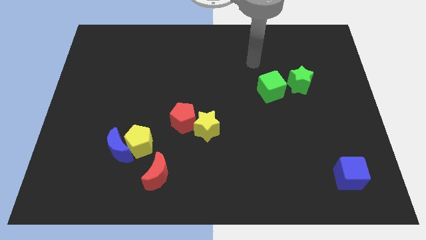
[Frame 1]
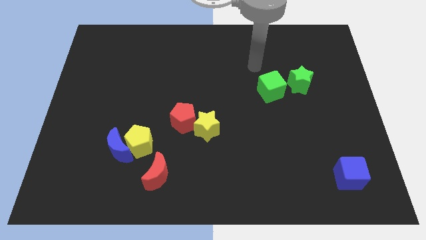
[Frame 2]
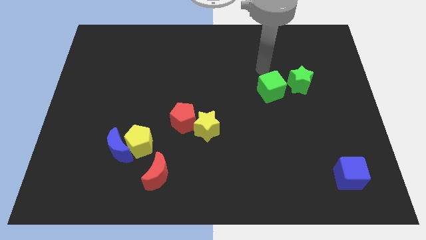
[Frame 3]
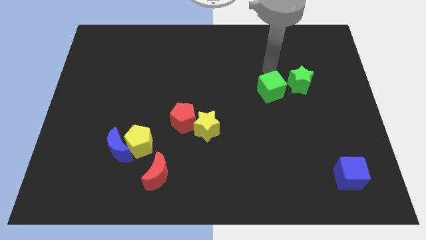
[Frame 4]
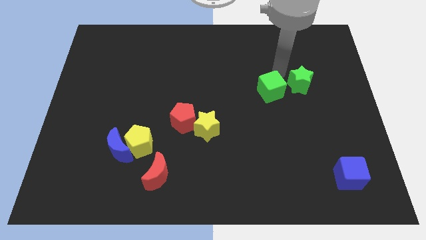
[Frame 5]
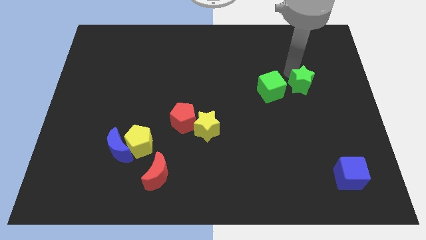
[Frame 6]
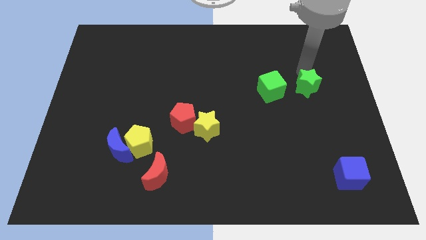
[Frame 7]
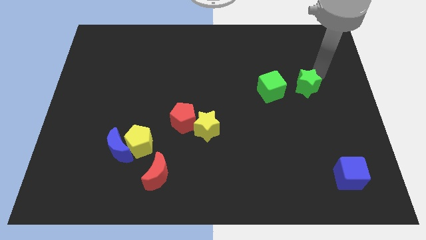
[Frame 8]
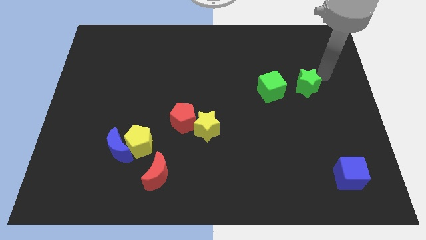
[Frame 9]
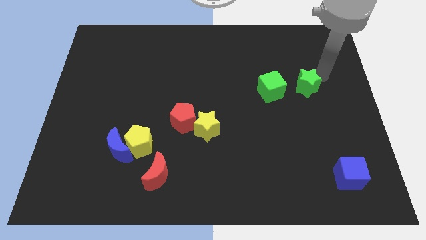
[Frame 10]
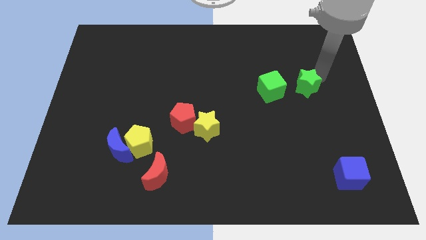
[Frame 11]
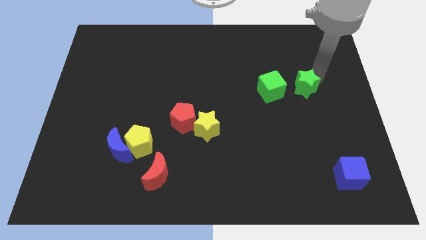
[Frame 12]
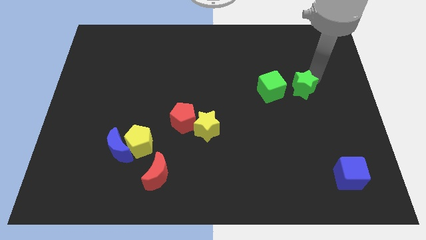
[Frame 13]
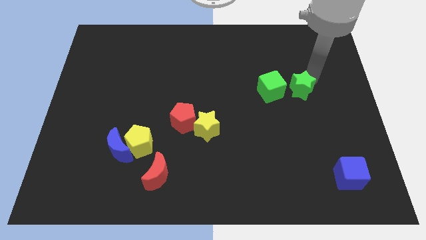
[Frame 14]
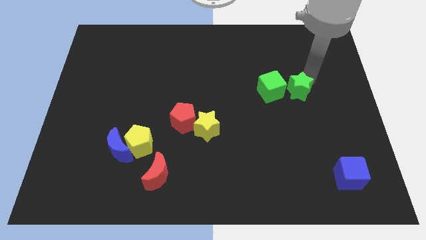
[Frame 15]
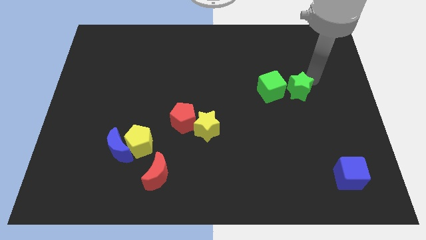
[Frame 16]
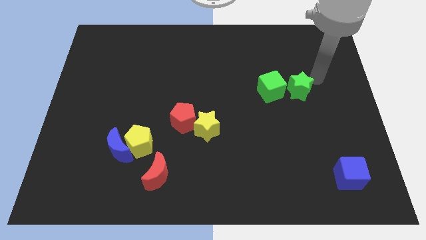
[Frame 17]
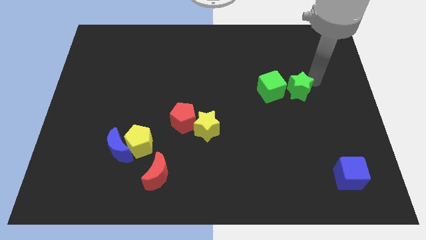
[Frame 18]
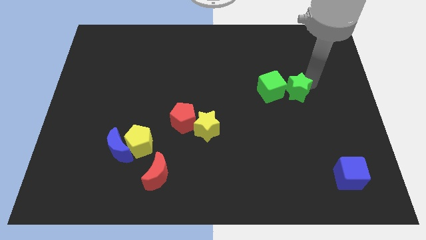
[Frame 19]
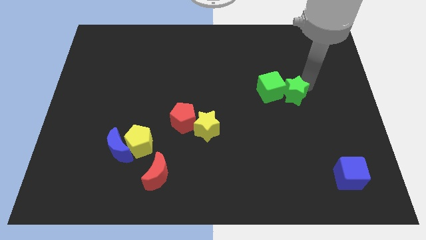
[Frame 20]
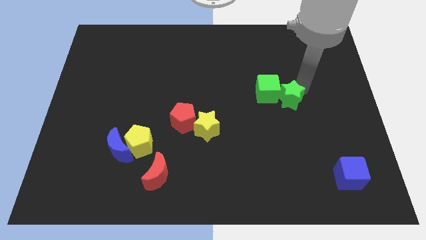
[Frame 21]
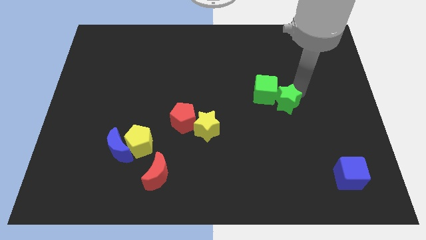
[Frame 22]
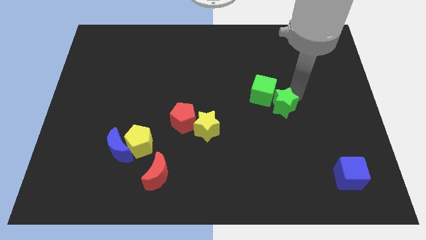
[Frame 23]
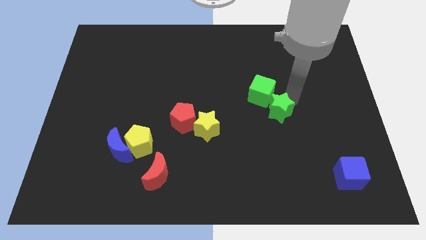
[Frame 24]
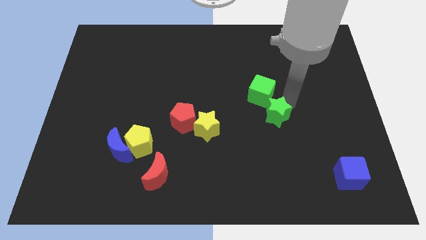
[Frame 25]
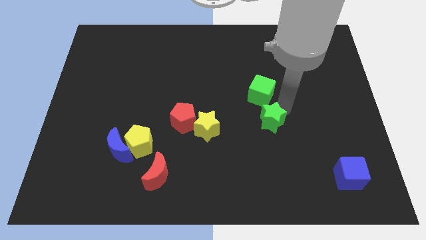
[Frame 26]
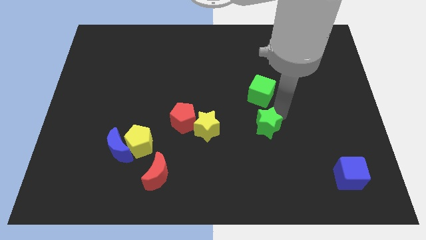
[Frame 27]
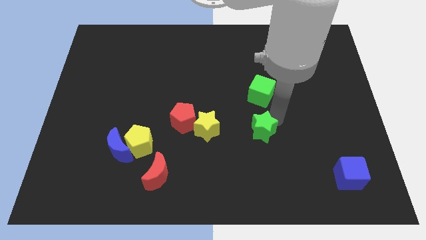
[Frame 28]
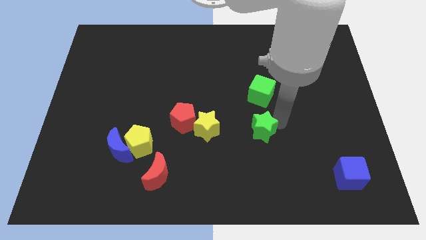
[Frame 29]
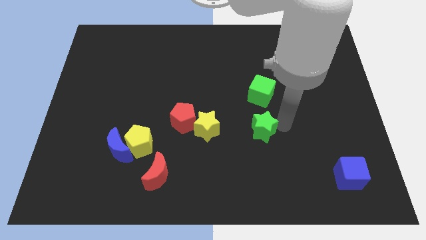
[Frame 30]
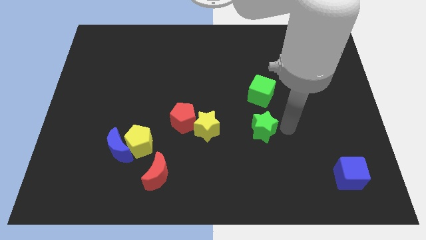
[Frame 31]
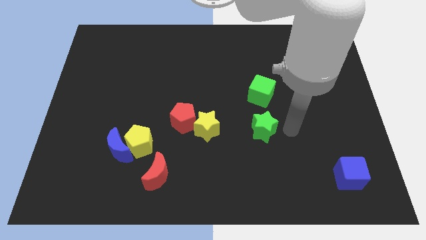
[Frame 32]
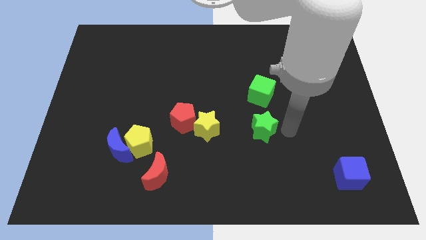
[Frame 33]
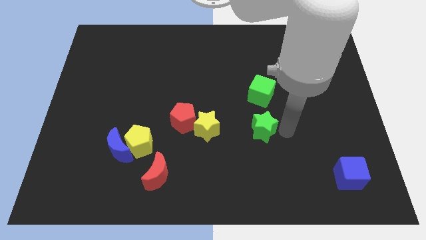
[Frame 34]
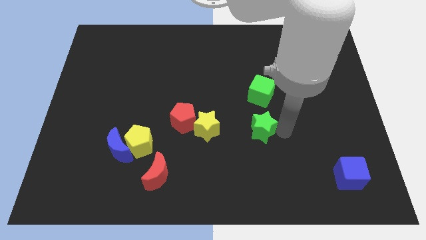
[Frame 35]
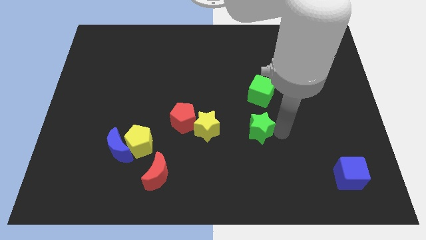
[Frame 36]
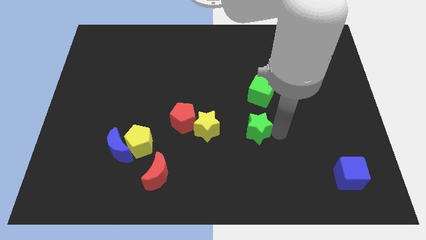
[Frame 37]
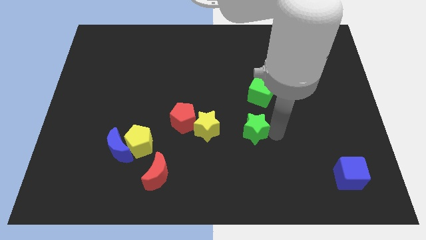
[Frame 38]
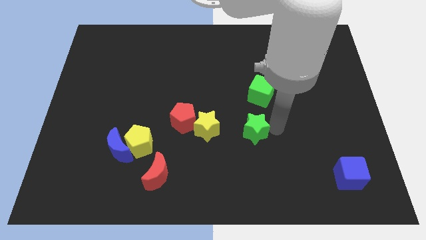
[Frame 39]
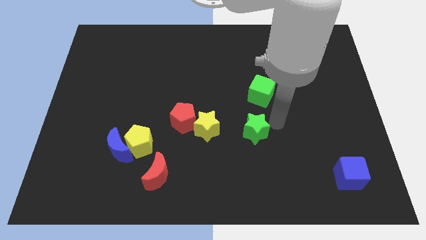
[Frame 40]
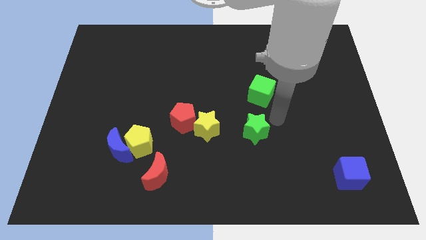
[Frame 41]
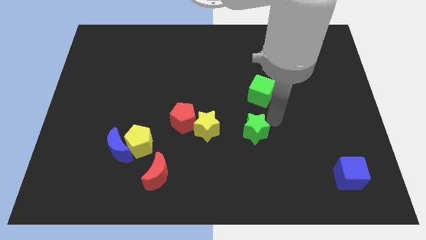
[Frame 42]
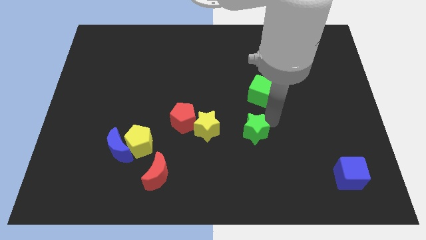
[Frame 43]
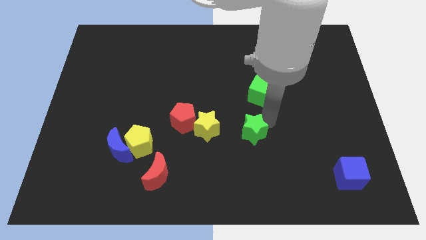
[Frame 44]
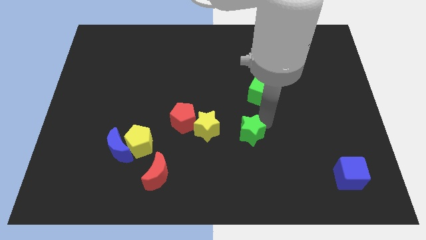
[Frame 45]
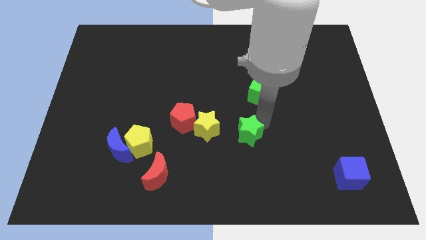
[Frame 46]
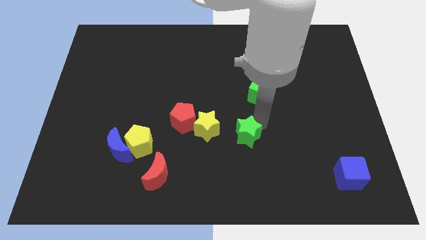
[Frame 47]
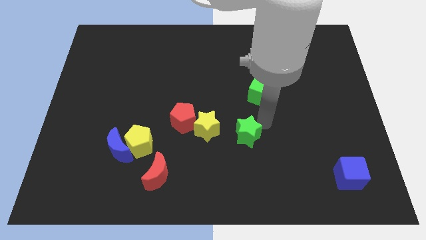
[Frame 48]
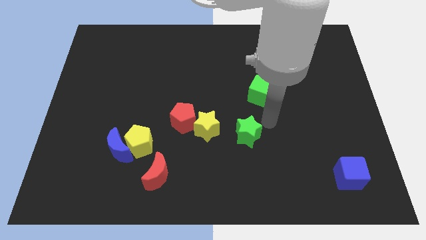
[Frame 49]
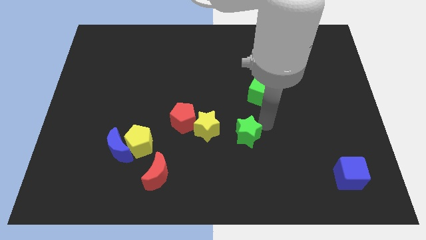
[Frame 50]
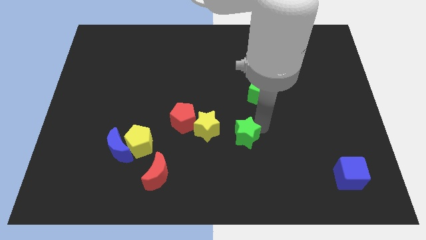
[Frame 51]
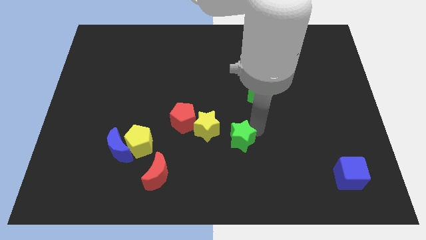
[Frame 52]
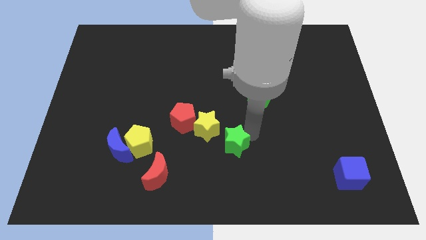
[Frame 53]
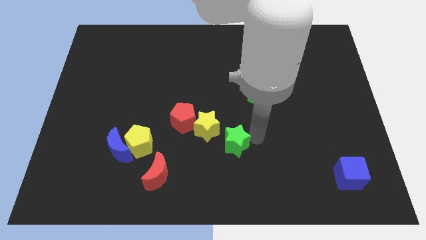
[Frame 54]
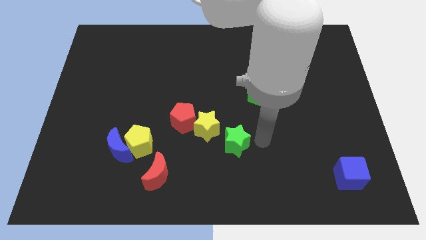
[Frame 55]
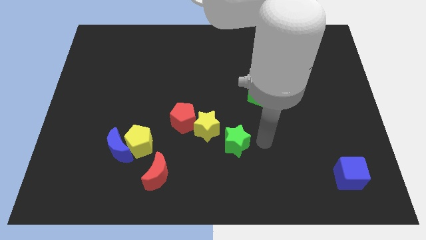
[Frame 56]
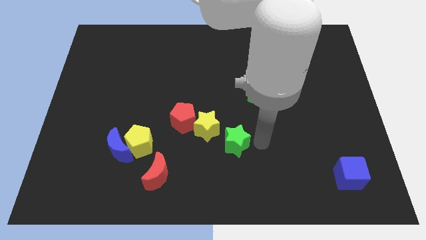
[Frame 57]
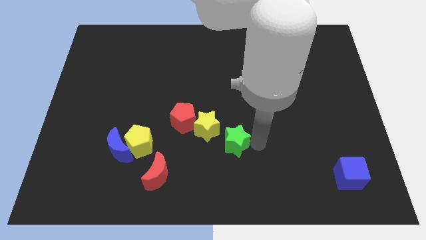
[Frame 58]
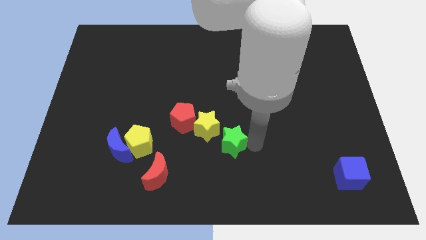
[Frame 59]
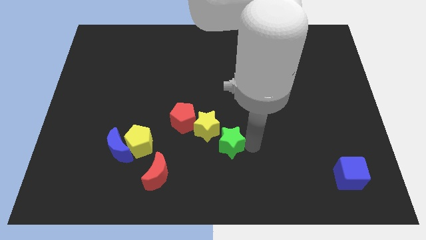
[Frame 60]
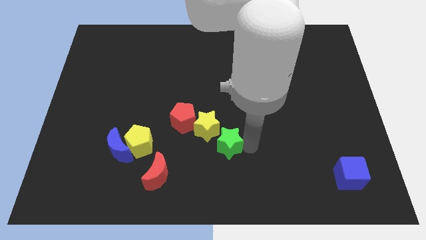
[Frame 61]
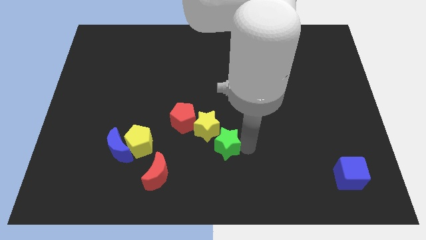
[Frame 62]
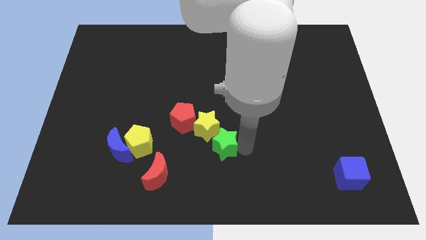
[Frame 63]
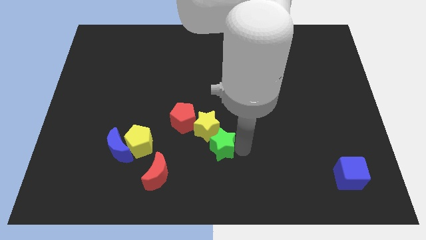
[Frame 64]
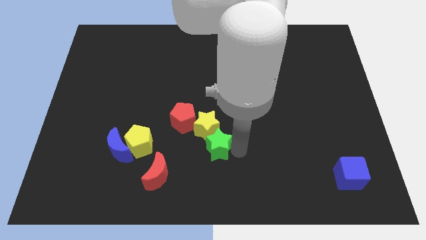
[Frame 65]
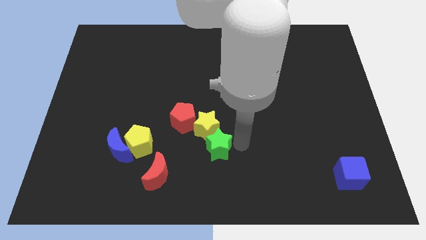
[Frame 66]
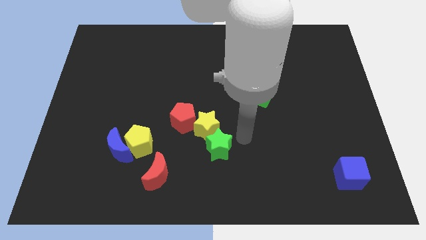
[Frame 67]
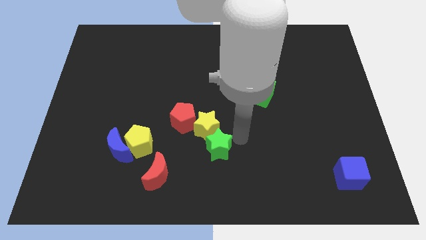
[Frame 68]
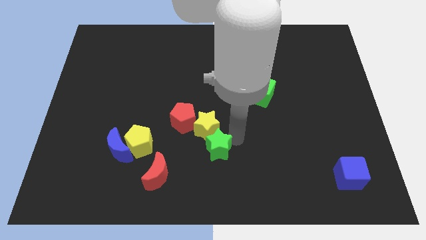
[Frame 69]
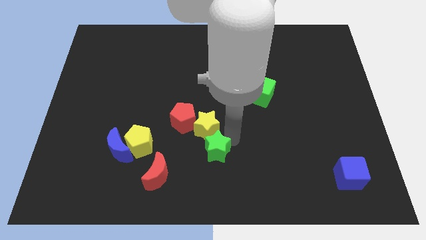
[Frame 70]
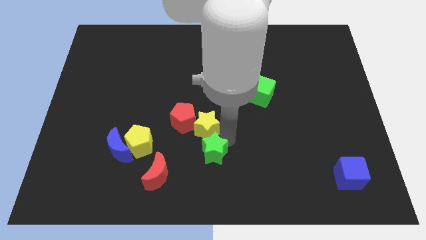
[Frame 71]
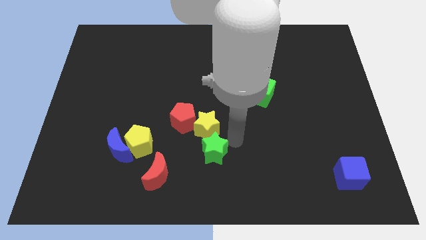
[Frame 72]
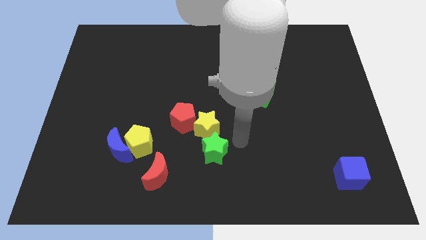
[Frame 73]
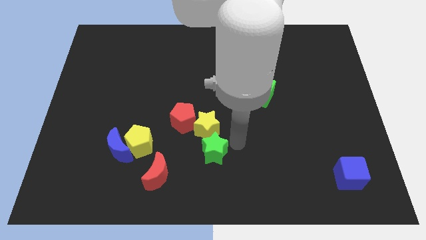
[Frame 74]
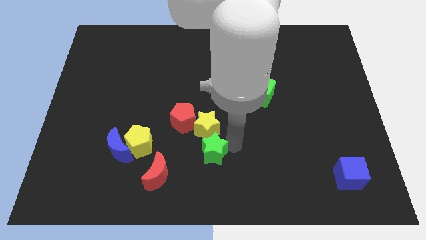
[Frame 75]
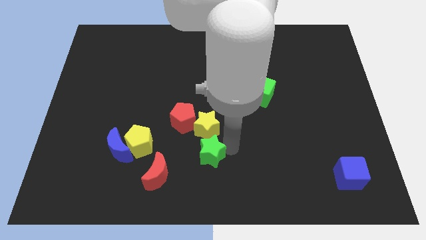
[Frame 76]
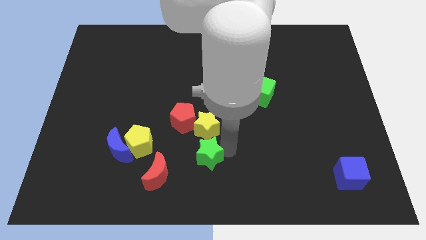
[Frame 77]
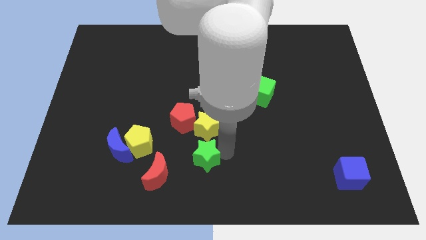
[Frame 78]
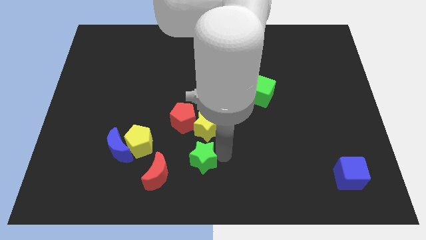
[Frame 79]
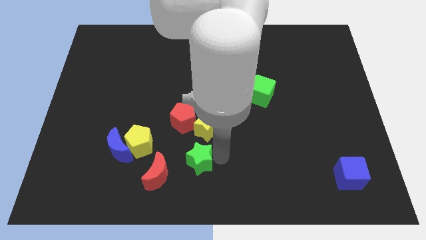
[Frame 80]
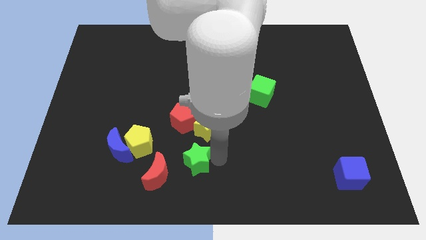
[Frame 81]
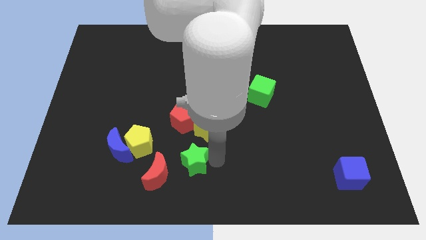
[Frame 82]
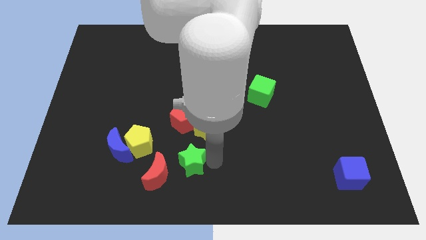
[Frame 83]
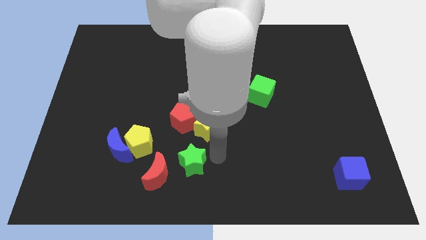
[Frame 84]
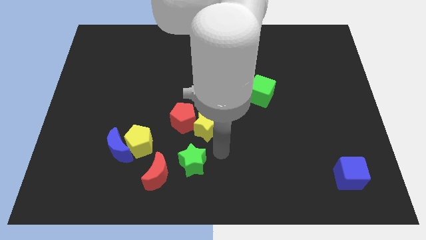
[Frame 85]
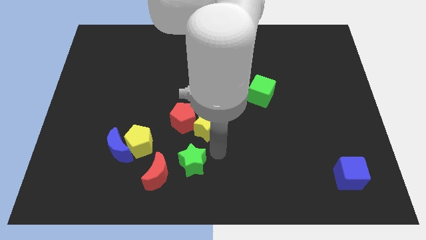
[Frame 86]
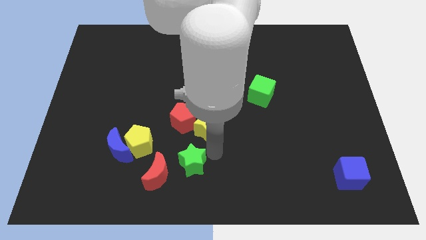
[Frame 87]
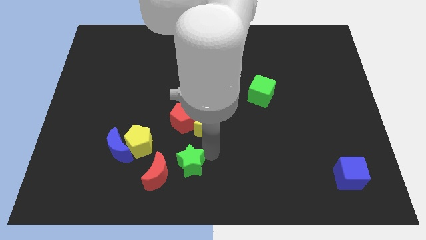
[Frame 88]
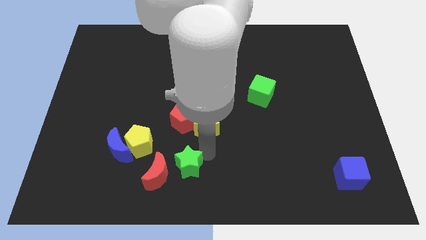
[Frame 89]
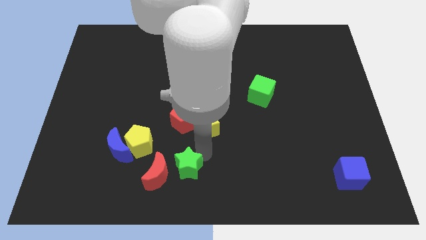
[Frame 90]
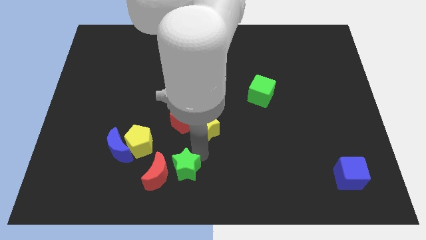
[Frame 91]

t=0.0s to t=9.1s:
put the green star next to the red moon
